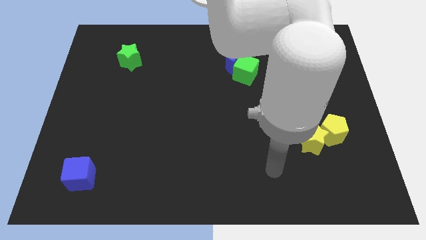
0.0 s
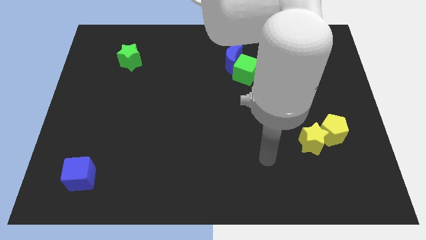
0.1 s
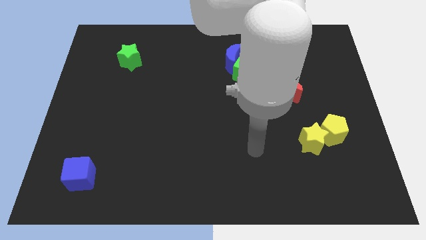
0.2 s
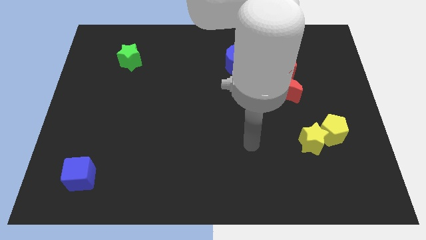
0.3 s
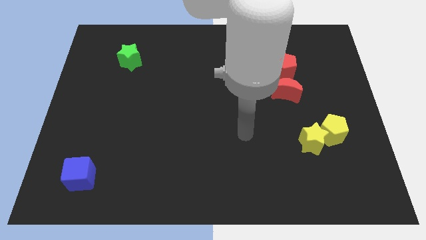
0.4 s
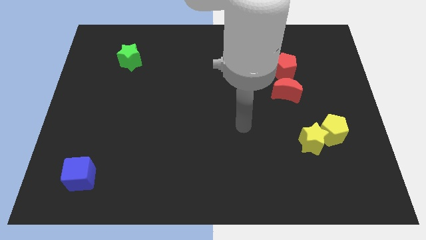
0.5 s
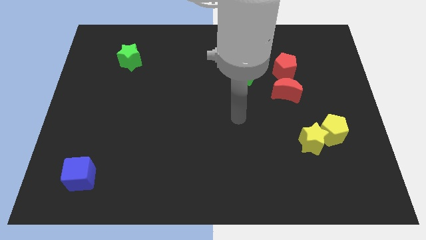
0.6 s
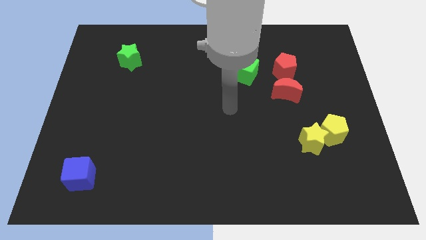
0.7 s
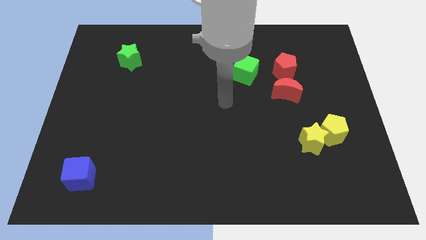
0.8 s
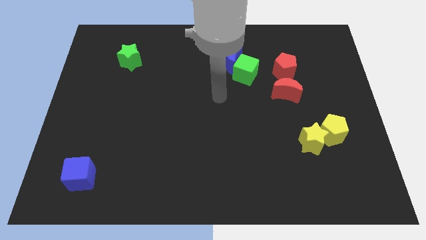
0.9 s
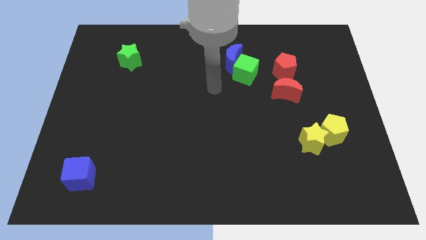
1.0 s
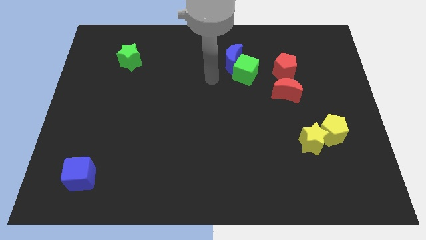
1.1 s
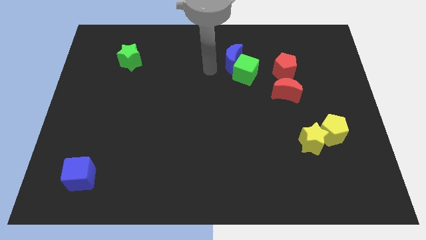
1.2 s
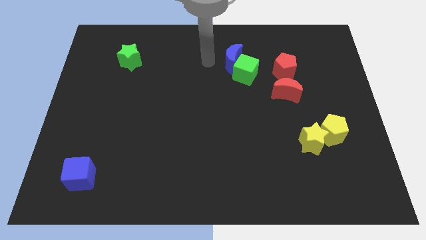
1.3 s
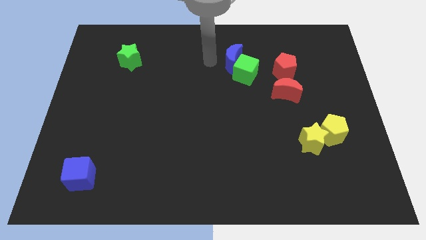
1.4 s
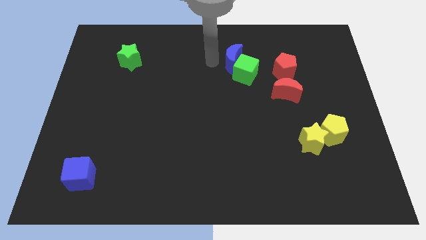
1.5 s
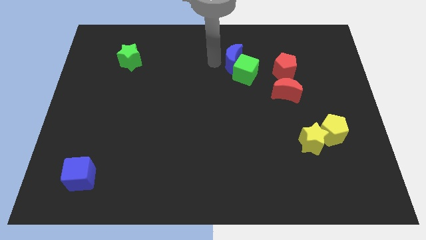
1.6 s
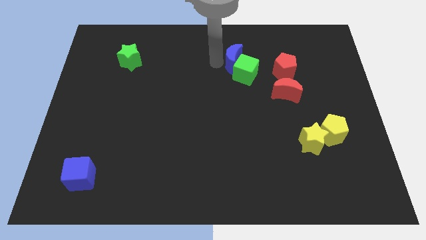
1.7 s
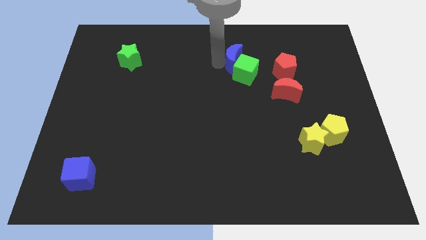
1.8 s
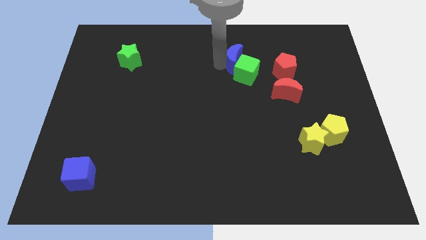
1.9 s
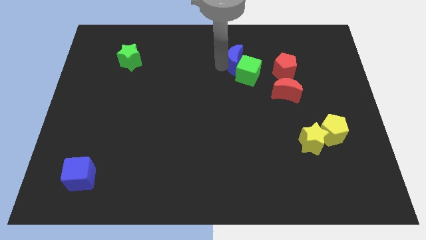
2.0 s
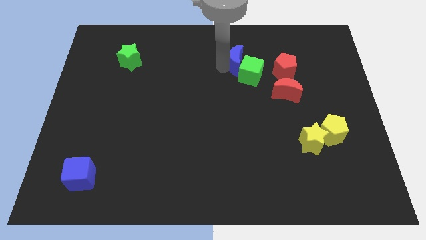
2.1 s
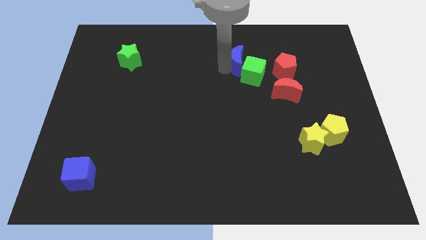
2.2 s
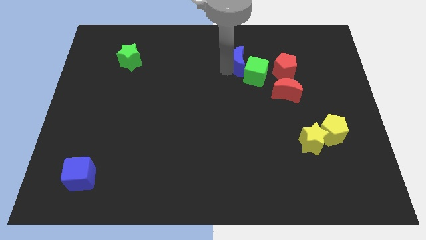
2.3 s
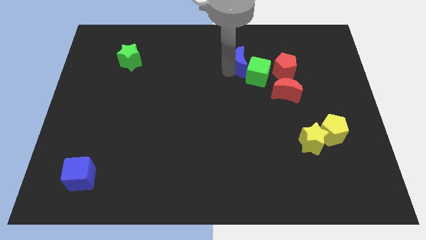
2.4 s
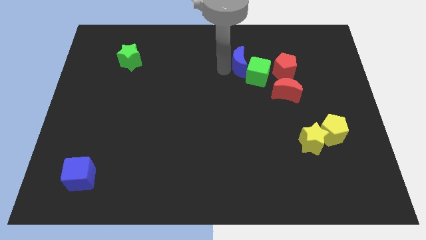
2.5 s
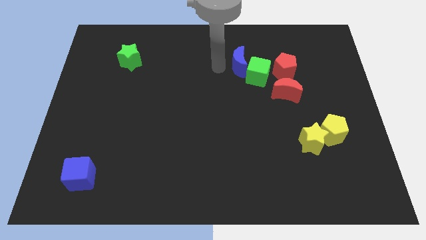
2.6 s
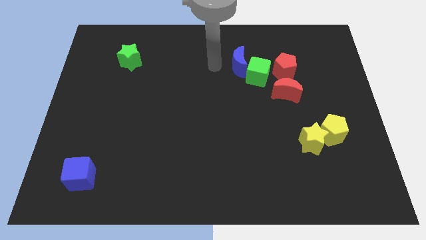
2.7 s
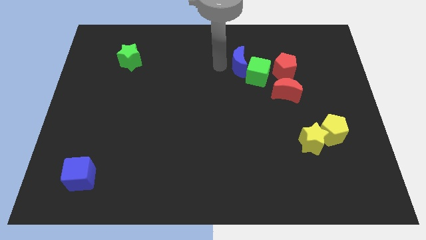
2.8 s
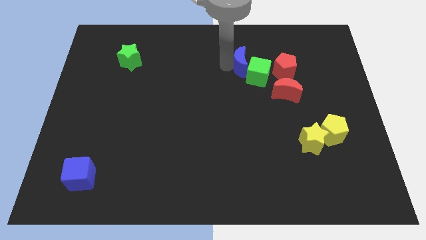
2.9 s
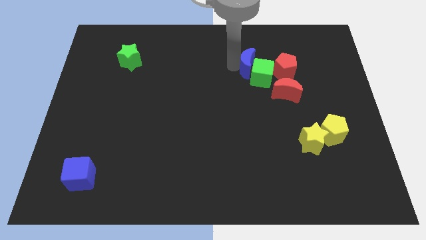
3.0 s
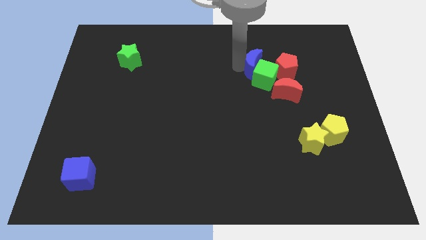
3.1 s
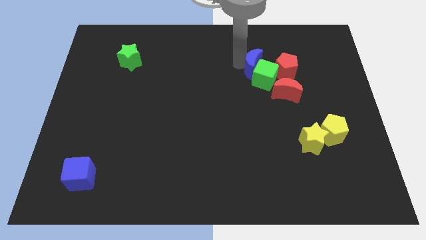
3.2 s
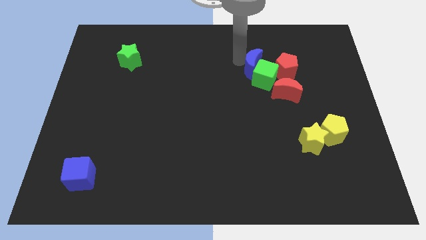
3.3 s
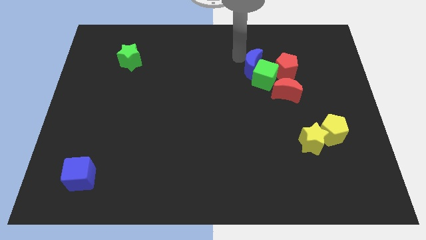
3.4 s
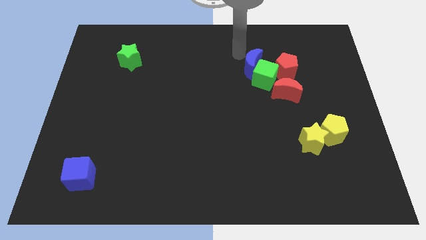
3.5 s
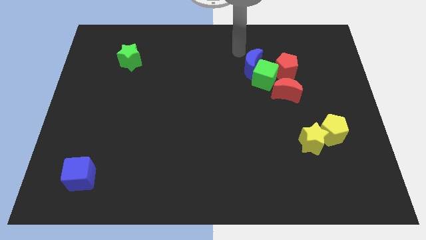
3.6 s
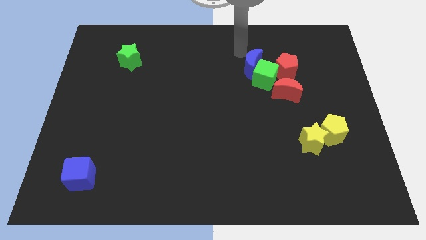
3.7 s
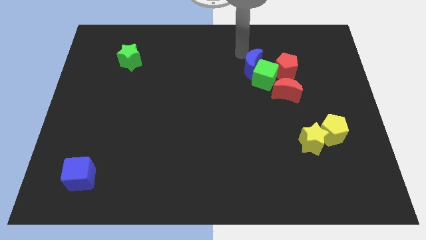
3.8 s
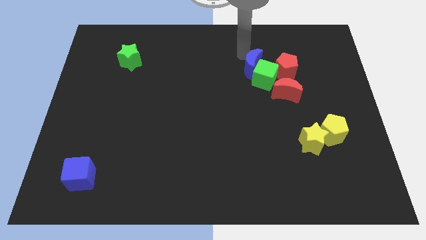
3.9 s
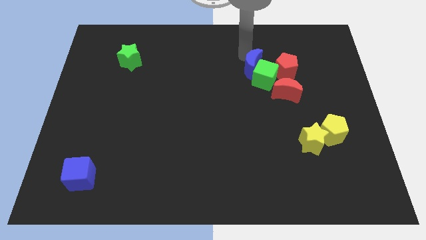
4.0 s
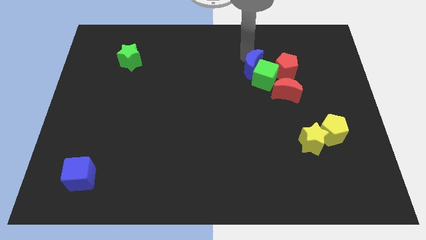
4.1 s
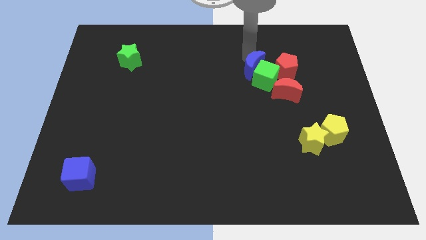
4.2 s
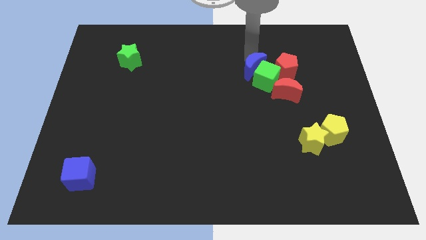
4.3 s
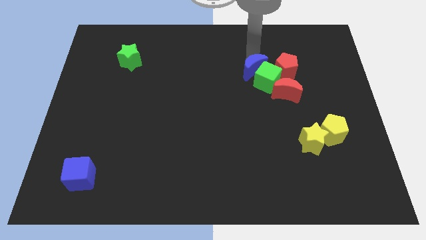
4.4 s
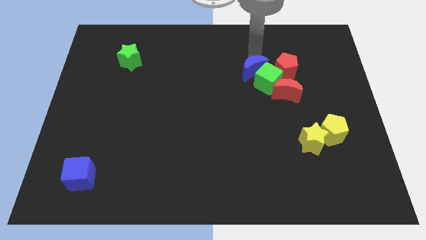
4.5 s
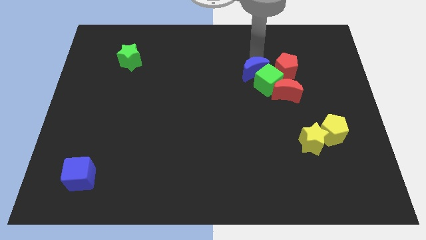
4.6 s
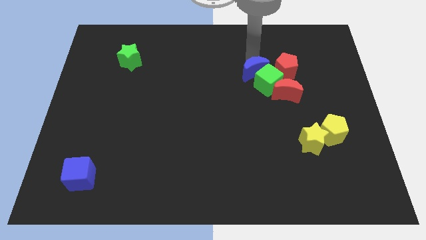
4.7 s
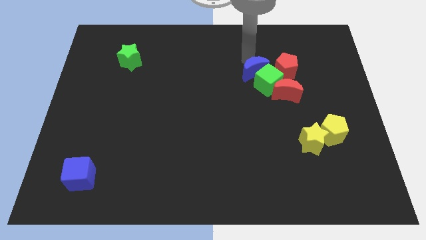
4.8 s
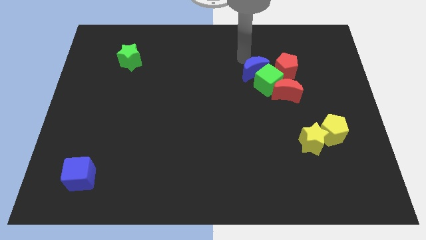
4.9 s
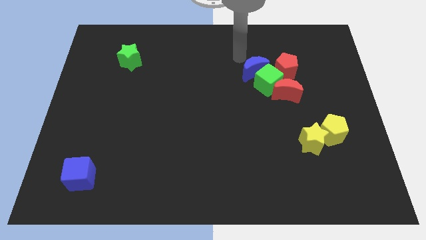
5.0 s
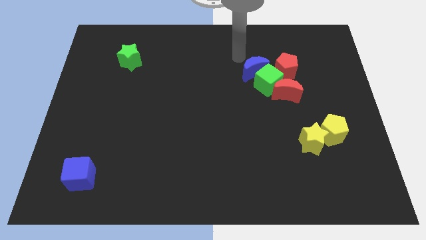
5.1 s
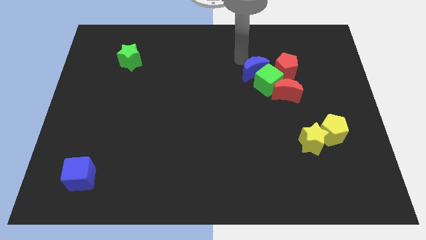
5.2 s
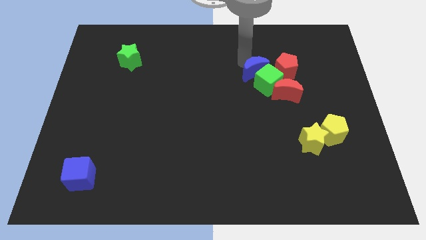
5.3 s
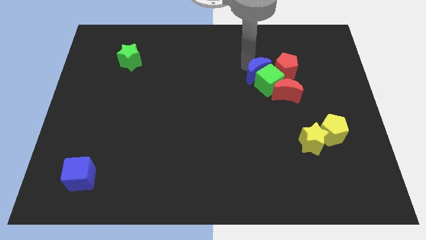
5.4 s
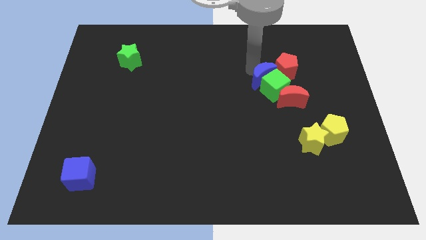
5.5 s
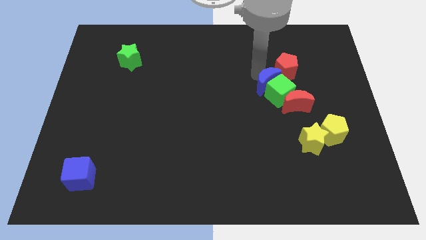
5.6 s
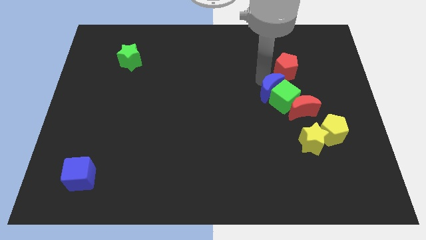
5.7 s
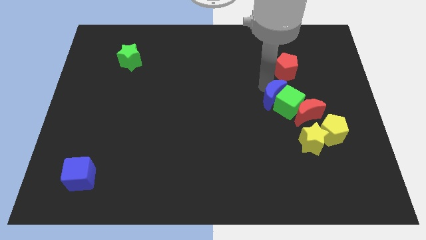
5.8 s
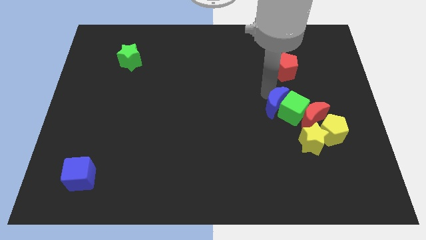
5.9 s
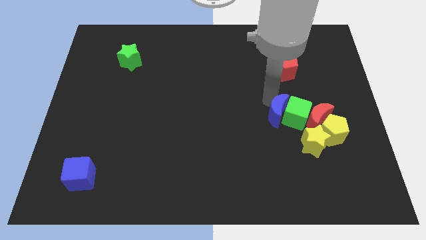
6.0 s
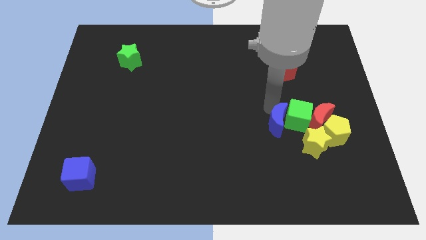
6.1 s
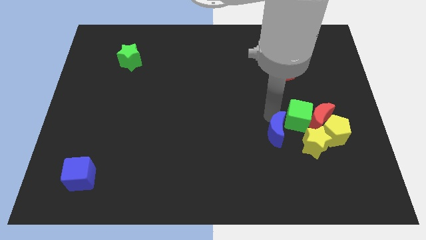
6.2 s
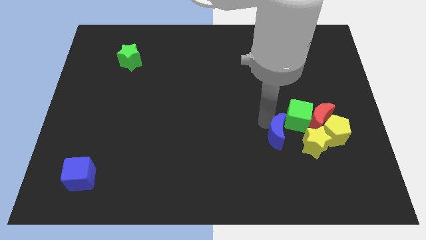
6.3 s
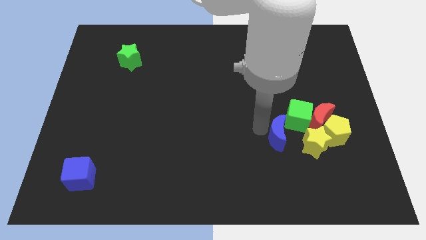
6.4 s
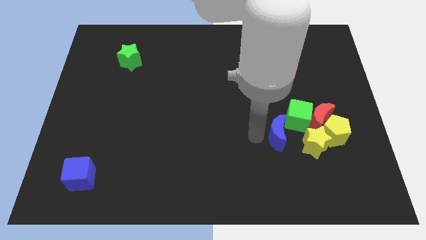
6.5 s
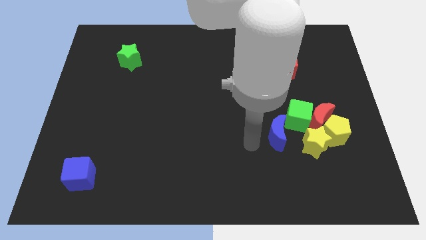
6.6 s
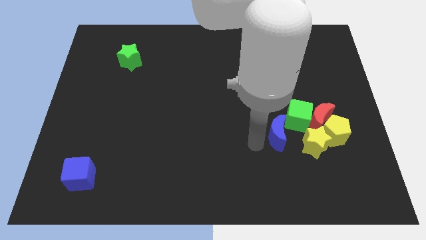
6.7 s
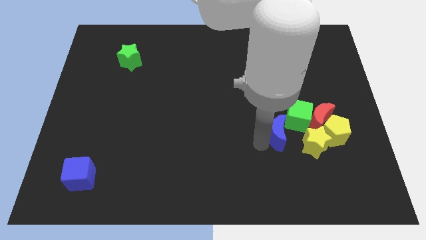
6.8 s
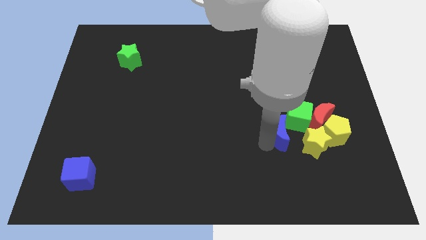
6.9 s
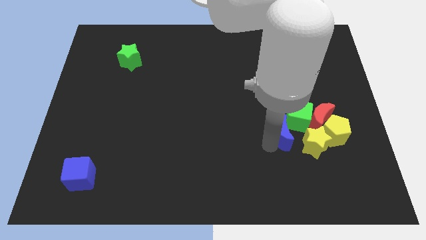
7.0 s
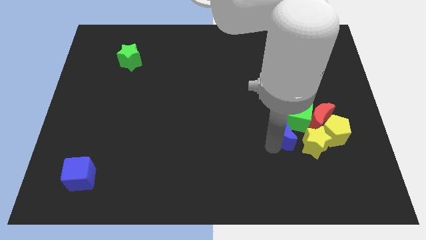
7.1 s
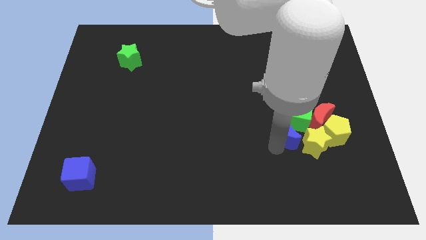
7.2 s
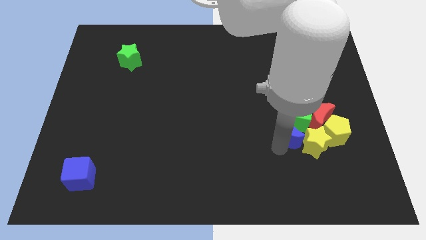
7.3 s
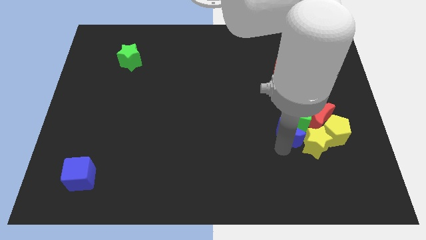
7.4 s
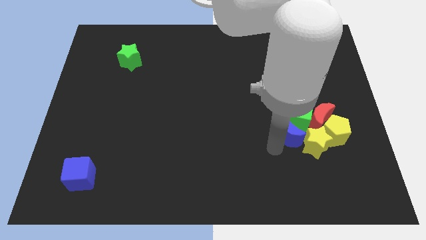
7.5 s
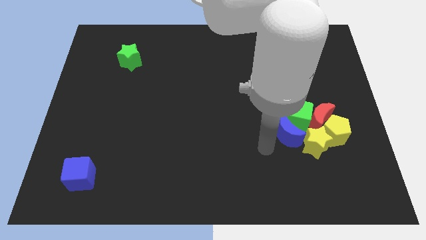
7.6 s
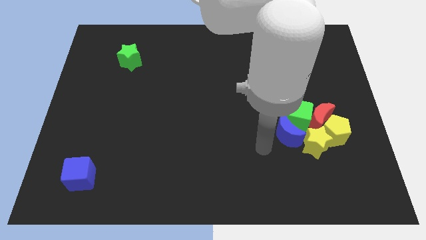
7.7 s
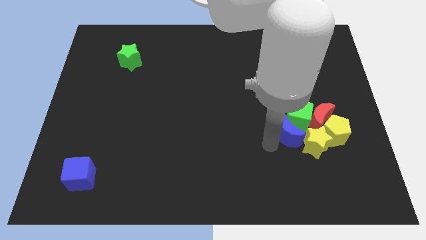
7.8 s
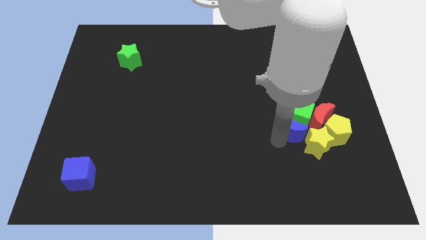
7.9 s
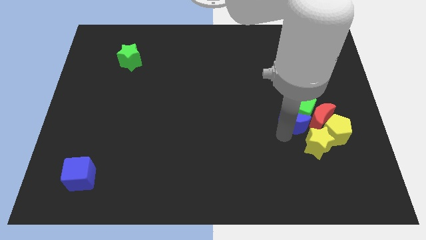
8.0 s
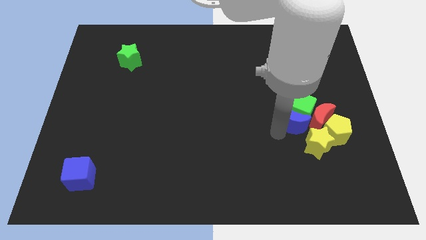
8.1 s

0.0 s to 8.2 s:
push the blue moon close to the red moon
